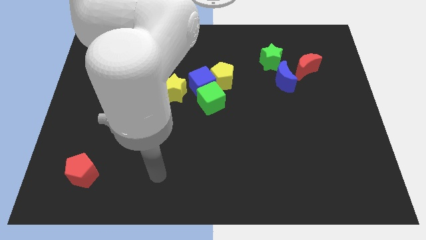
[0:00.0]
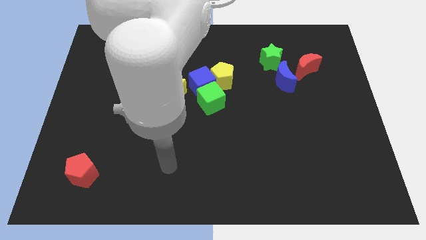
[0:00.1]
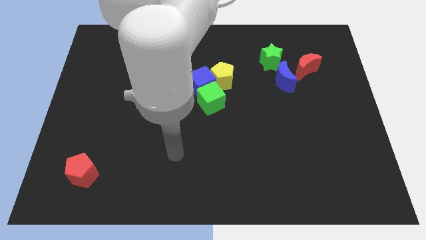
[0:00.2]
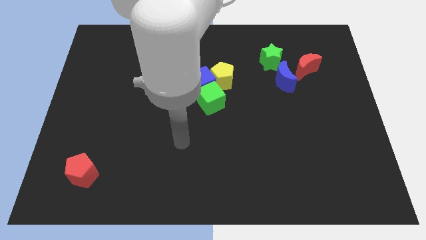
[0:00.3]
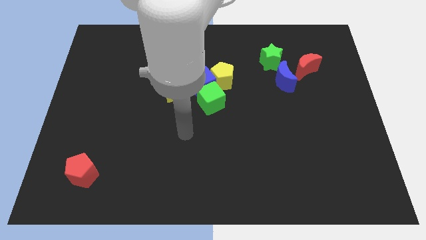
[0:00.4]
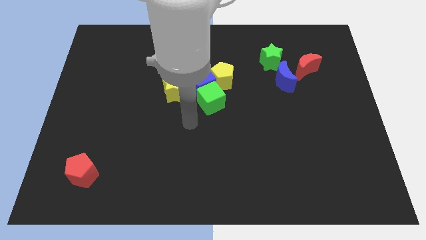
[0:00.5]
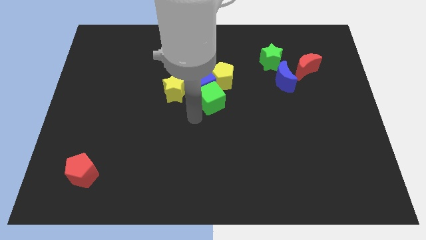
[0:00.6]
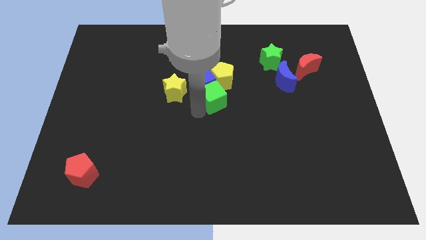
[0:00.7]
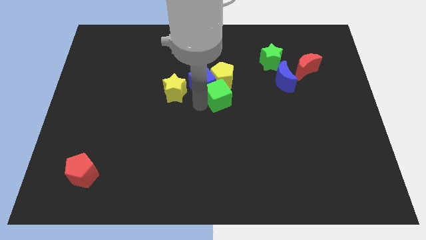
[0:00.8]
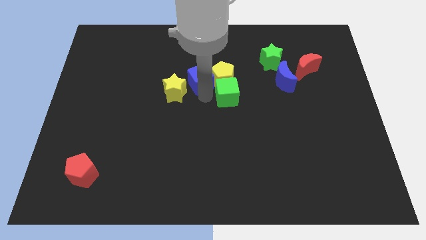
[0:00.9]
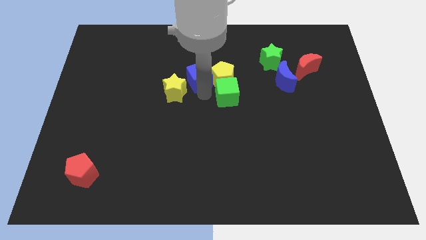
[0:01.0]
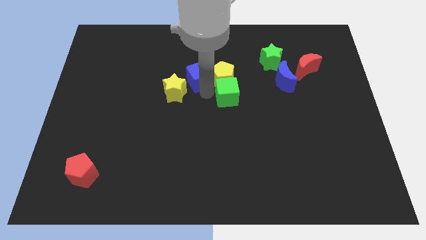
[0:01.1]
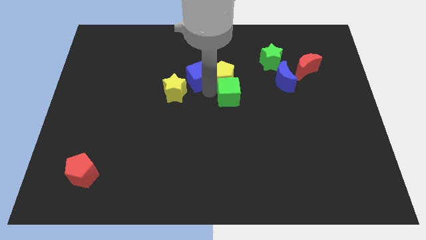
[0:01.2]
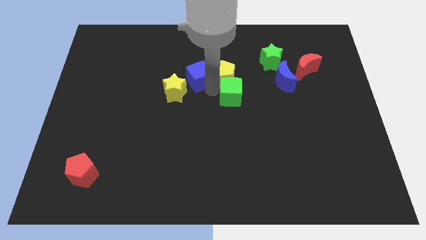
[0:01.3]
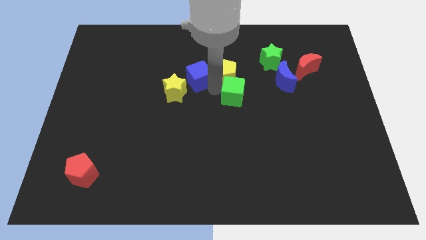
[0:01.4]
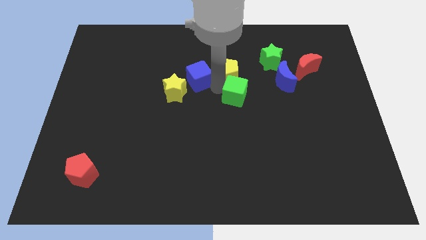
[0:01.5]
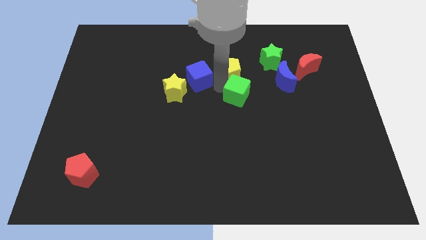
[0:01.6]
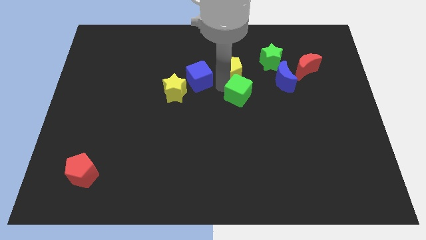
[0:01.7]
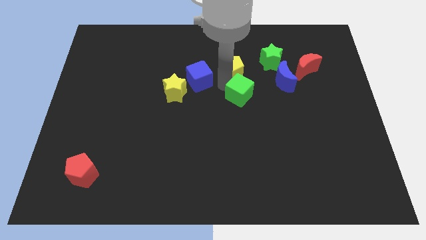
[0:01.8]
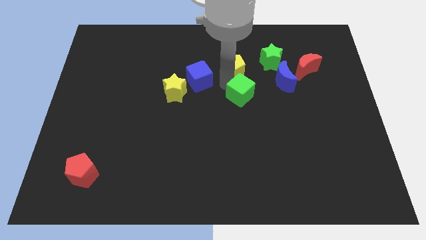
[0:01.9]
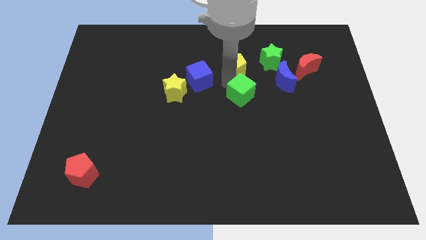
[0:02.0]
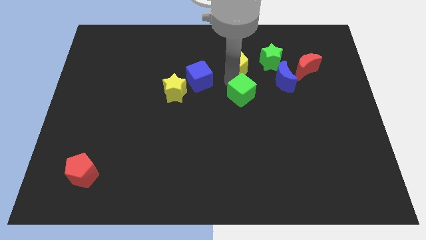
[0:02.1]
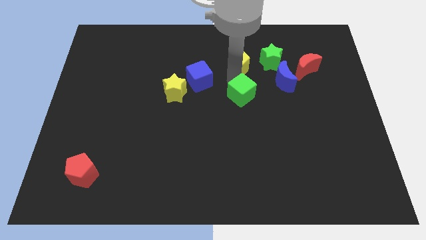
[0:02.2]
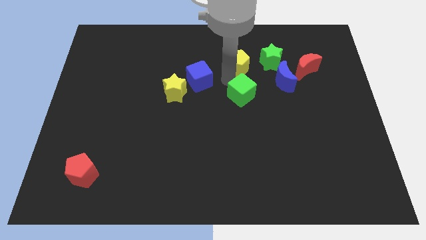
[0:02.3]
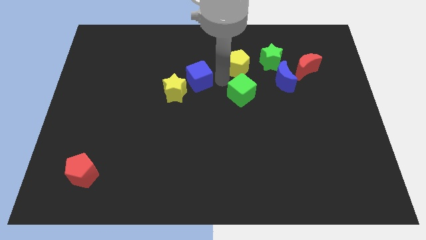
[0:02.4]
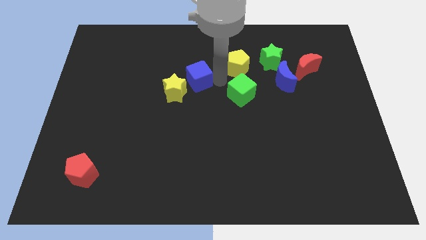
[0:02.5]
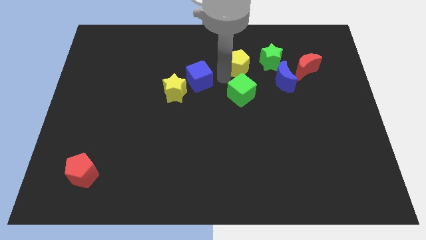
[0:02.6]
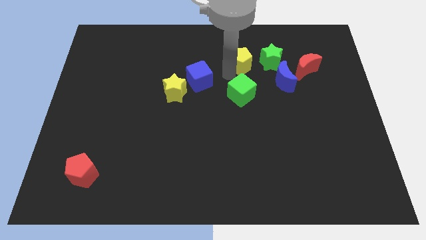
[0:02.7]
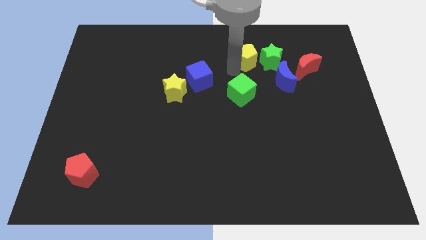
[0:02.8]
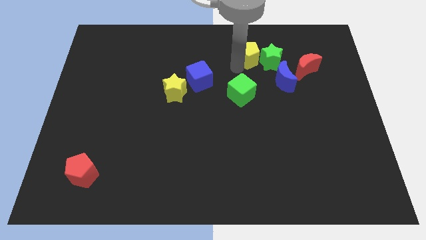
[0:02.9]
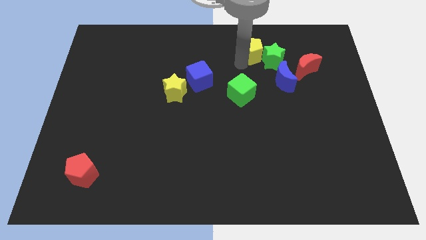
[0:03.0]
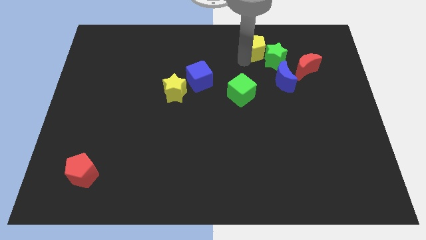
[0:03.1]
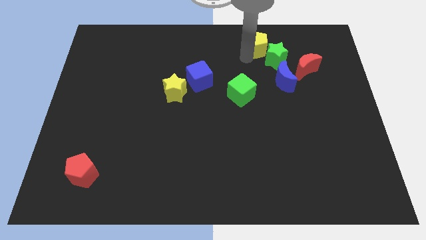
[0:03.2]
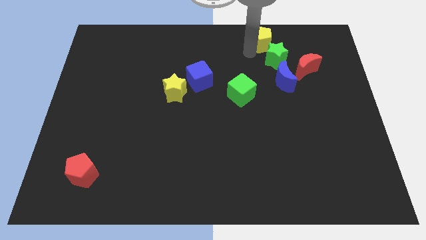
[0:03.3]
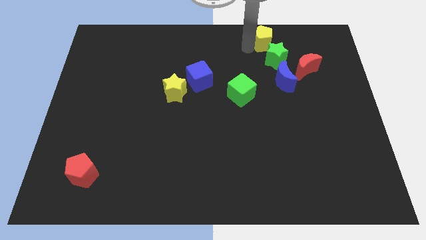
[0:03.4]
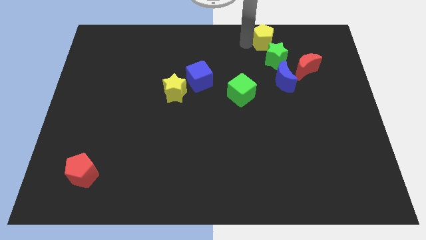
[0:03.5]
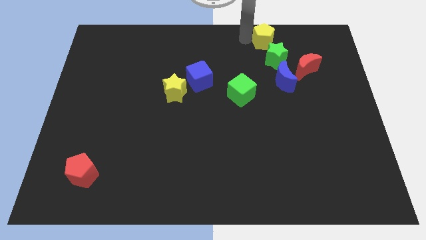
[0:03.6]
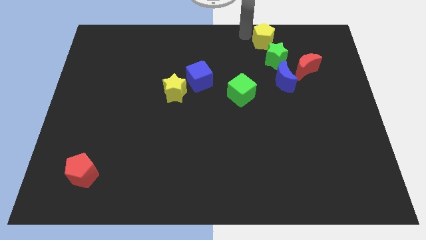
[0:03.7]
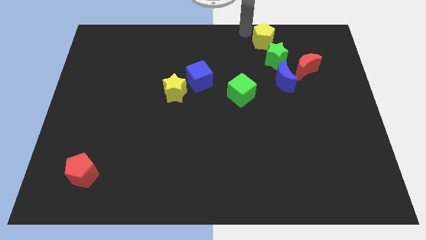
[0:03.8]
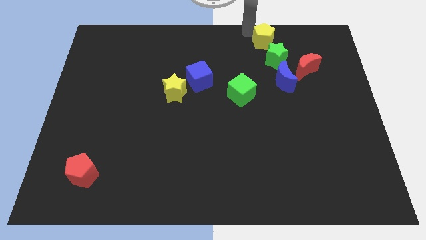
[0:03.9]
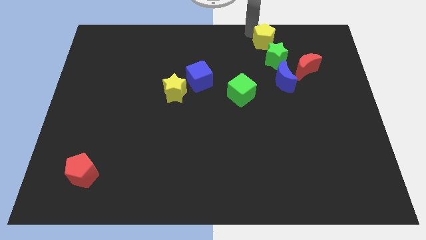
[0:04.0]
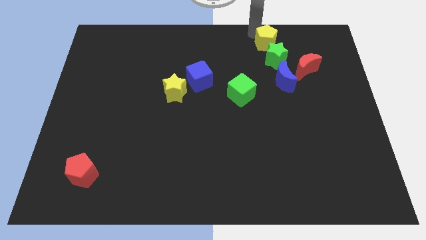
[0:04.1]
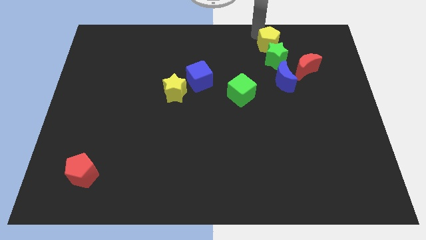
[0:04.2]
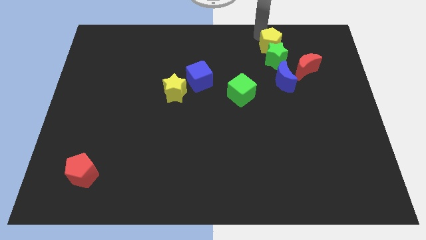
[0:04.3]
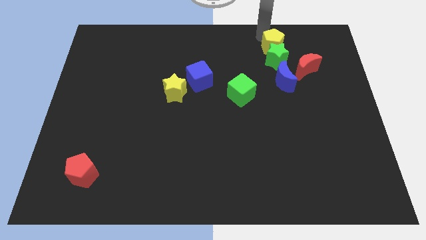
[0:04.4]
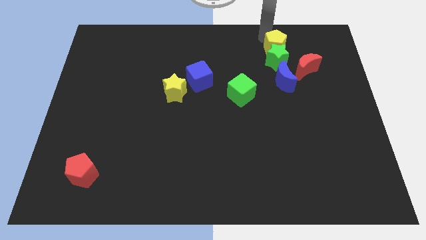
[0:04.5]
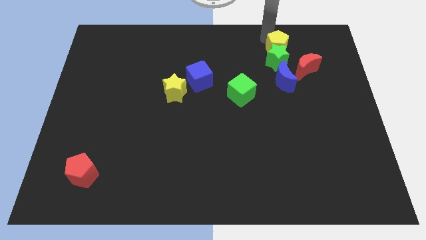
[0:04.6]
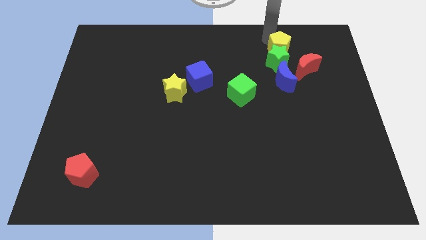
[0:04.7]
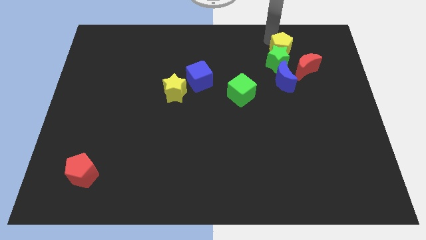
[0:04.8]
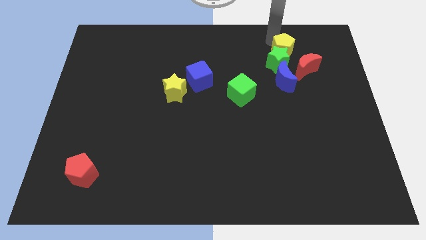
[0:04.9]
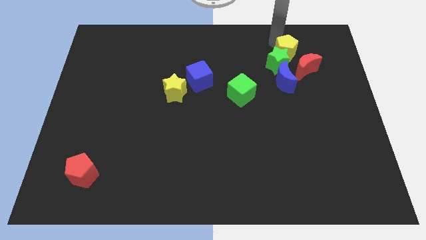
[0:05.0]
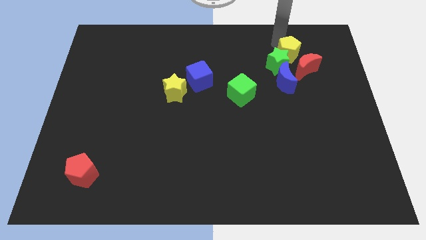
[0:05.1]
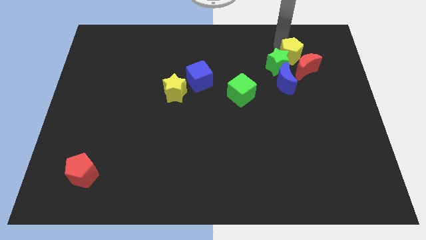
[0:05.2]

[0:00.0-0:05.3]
put the yellow pentagon next to the red moon

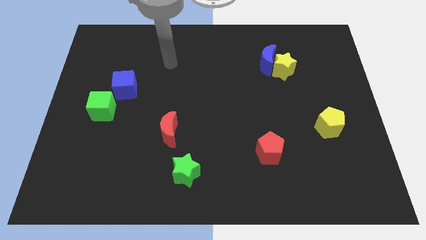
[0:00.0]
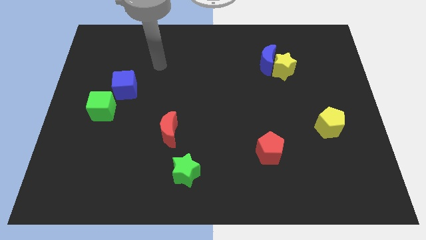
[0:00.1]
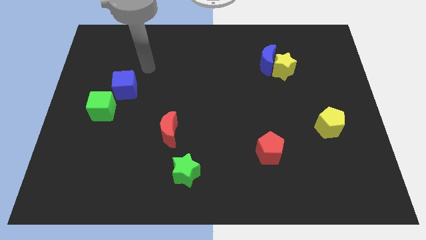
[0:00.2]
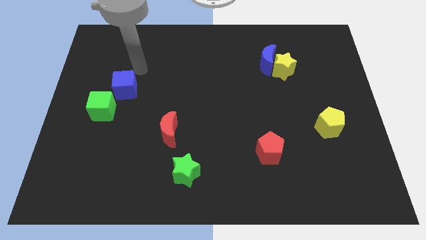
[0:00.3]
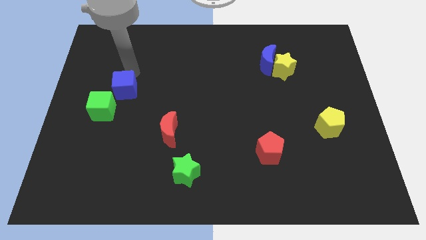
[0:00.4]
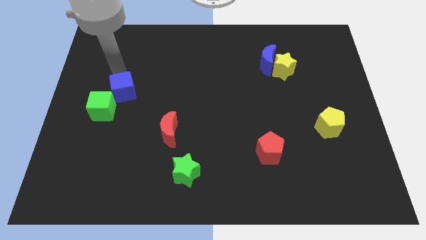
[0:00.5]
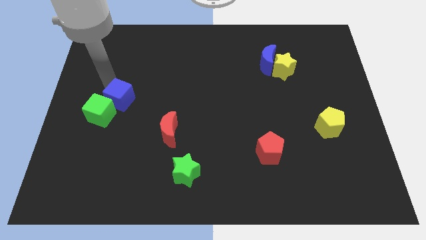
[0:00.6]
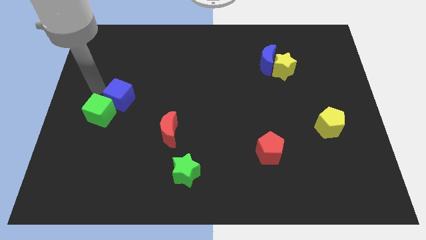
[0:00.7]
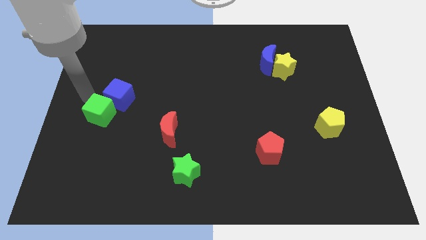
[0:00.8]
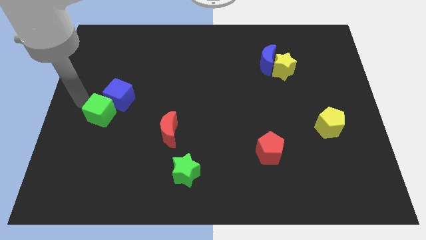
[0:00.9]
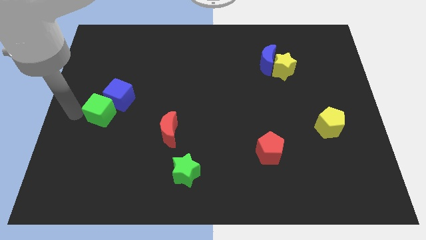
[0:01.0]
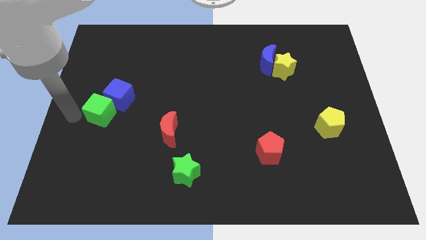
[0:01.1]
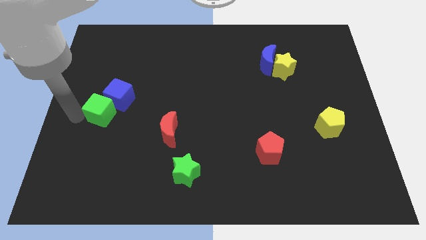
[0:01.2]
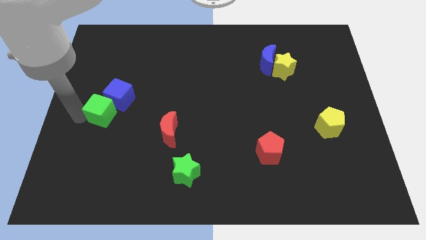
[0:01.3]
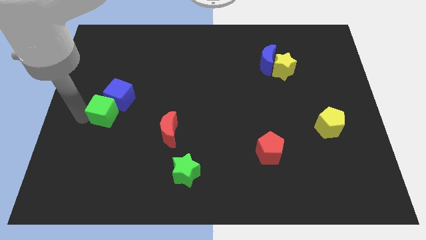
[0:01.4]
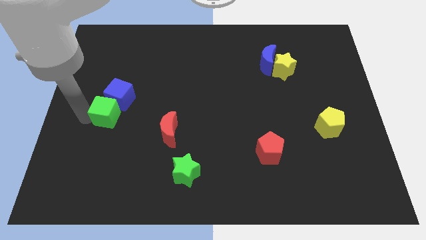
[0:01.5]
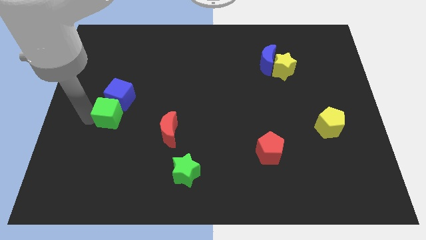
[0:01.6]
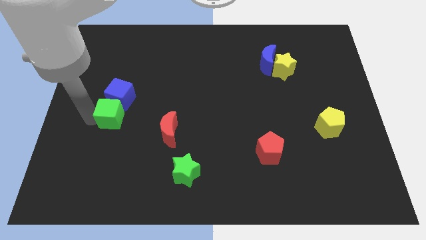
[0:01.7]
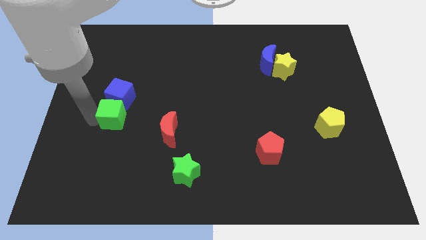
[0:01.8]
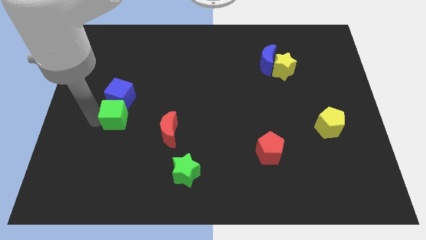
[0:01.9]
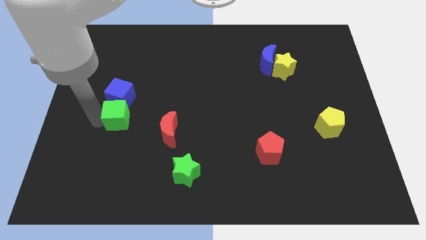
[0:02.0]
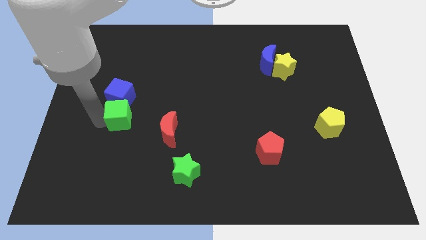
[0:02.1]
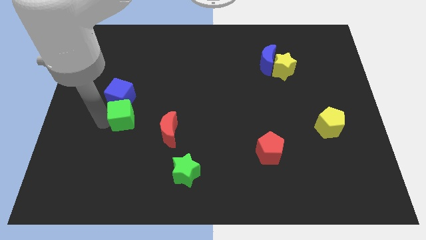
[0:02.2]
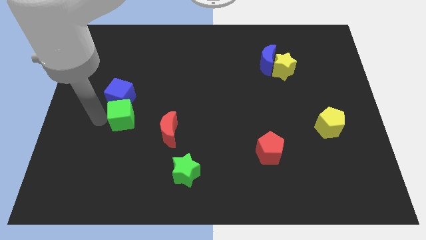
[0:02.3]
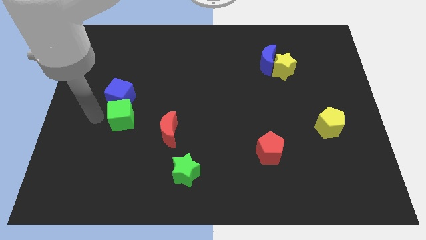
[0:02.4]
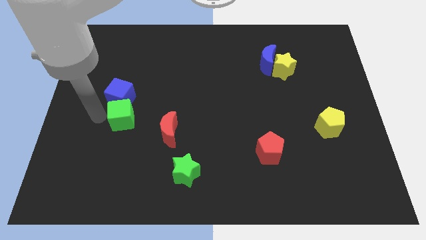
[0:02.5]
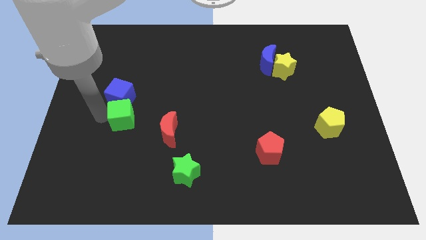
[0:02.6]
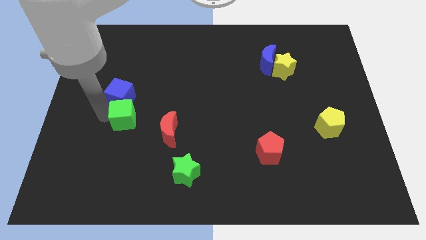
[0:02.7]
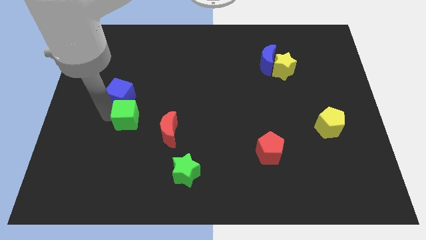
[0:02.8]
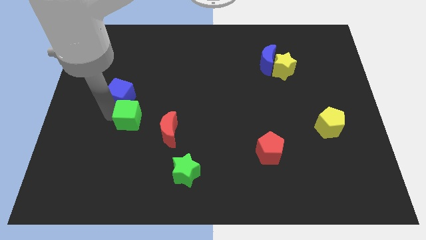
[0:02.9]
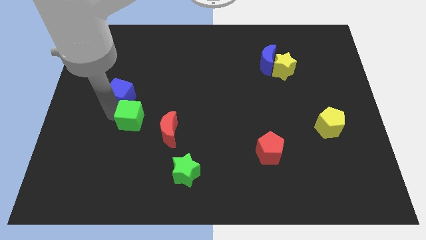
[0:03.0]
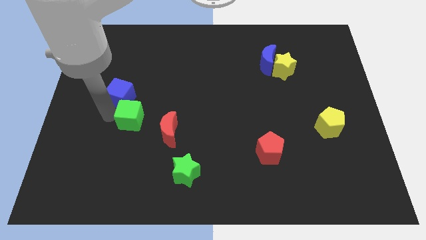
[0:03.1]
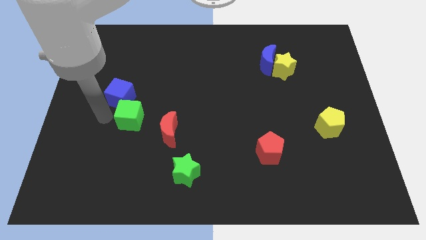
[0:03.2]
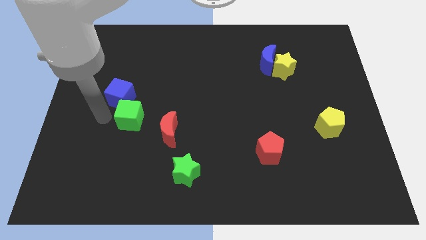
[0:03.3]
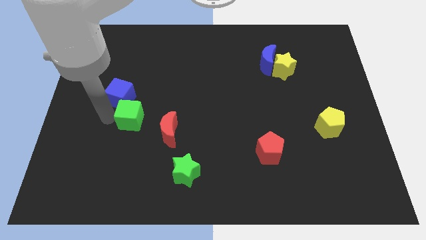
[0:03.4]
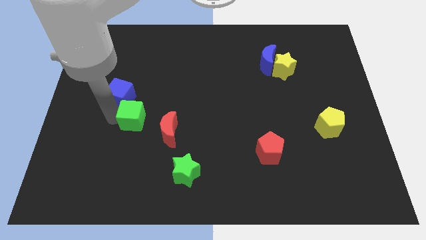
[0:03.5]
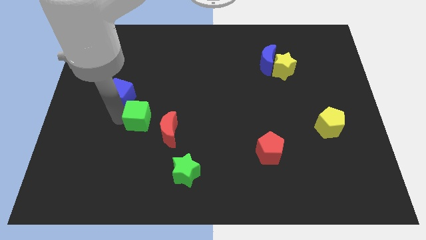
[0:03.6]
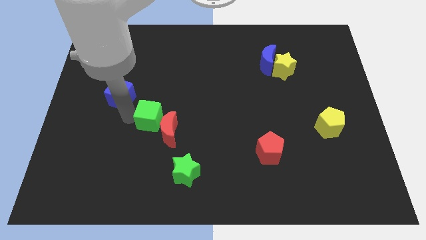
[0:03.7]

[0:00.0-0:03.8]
slide the green cube towards the red moon
